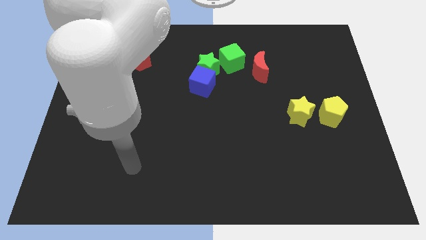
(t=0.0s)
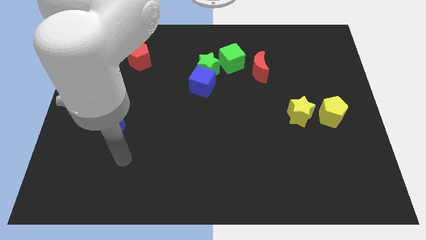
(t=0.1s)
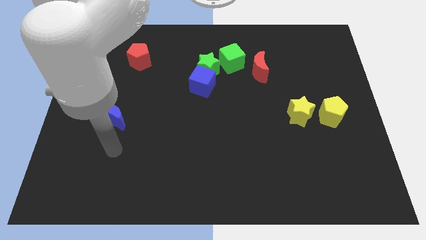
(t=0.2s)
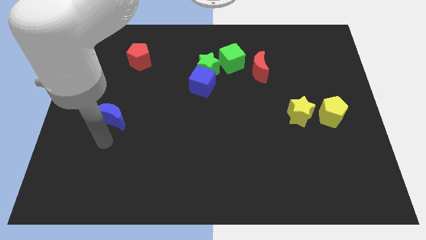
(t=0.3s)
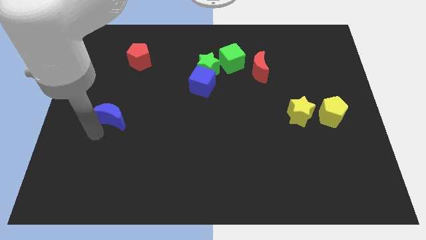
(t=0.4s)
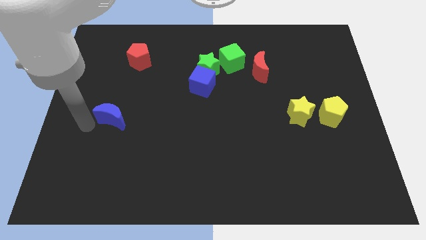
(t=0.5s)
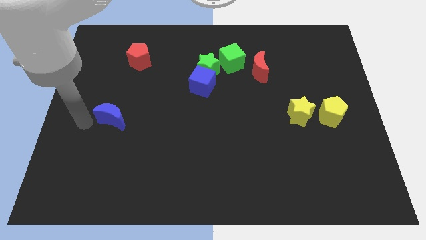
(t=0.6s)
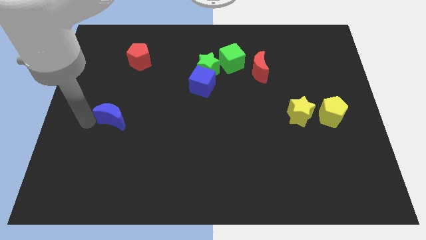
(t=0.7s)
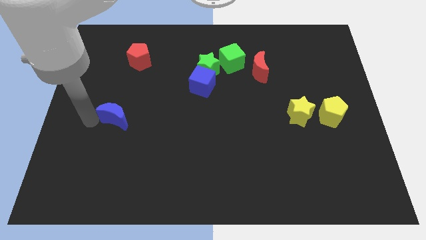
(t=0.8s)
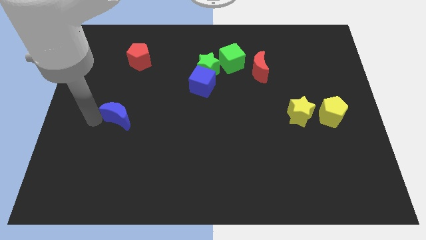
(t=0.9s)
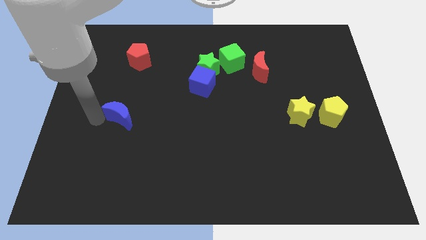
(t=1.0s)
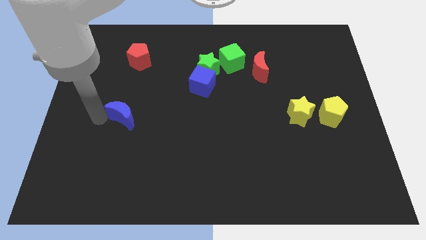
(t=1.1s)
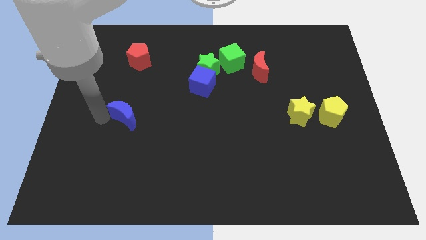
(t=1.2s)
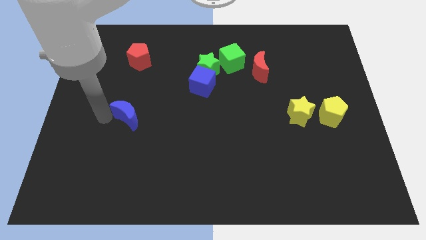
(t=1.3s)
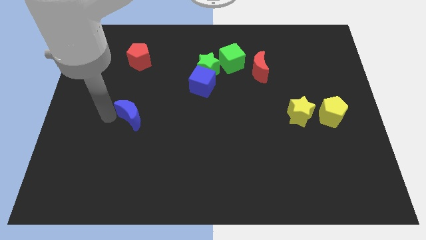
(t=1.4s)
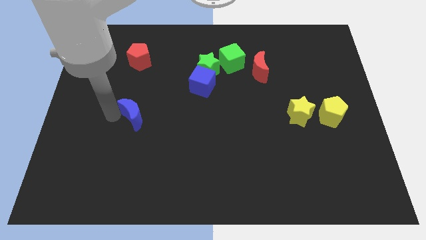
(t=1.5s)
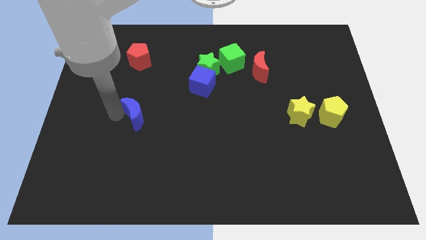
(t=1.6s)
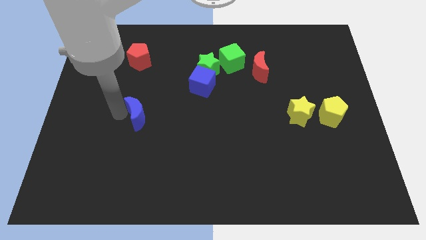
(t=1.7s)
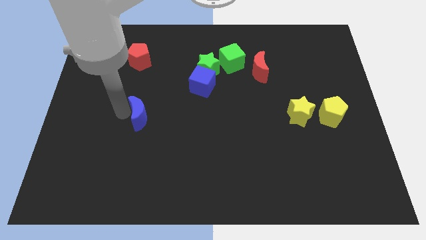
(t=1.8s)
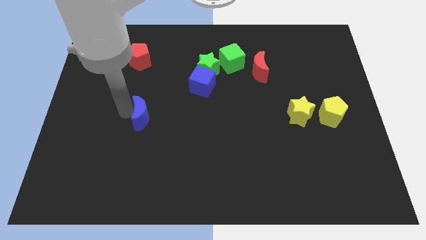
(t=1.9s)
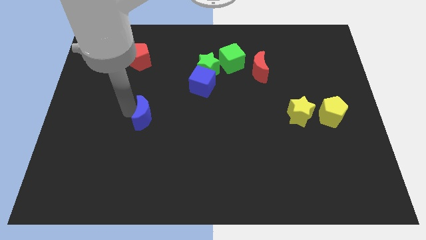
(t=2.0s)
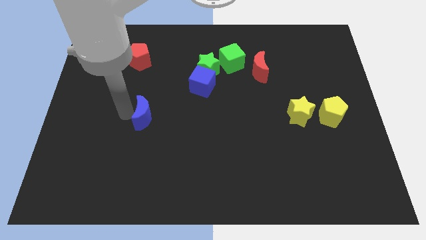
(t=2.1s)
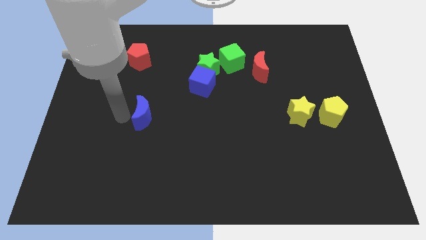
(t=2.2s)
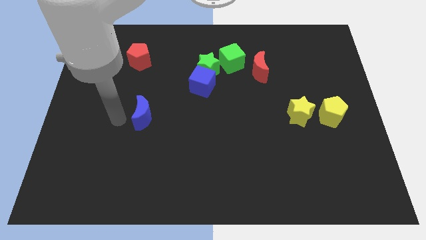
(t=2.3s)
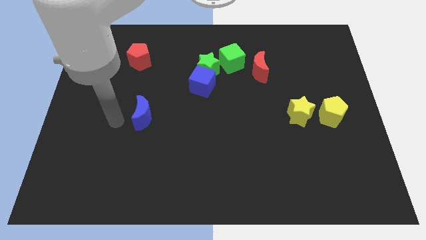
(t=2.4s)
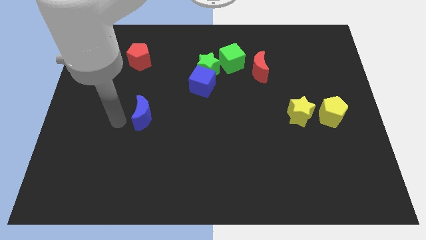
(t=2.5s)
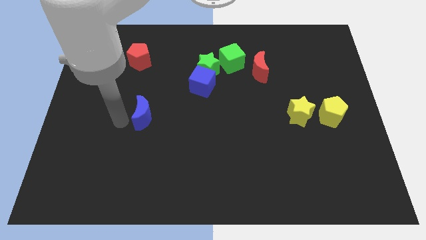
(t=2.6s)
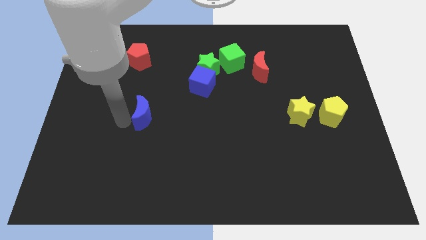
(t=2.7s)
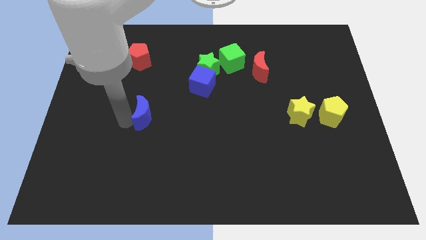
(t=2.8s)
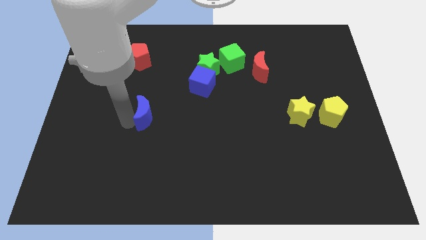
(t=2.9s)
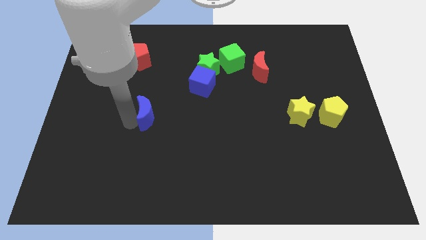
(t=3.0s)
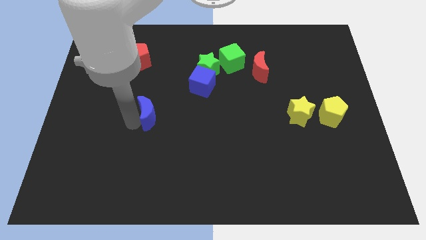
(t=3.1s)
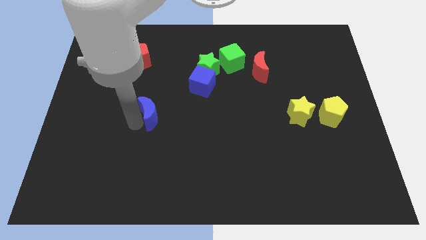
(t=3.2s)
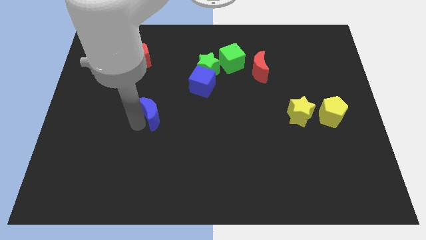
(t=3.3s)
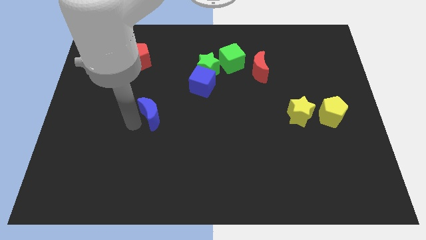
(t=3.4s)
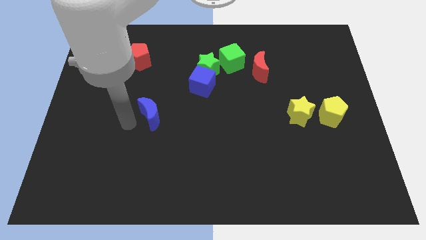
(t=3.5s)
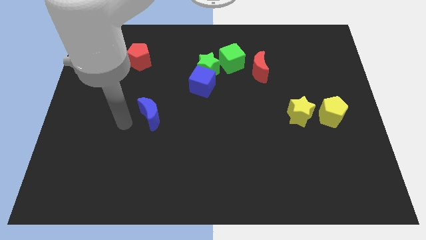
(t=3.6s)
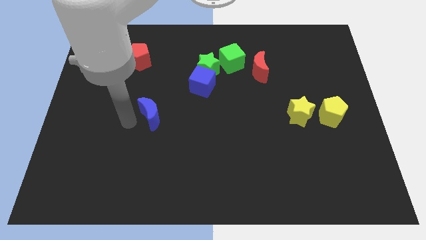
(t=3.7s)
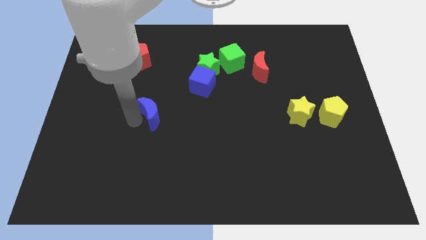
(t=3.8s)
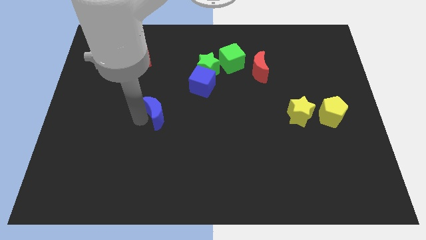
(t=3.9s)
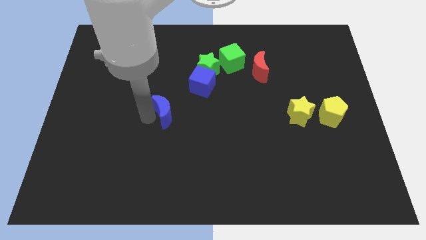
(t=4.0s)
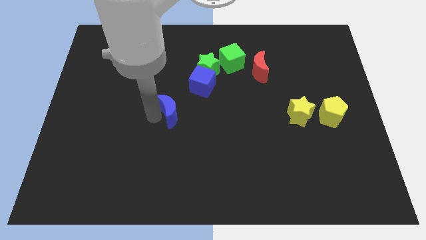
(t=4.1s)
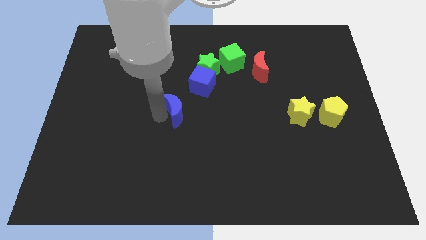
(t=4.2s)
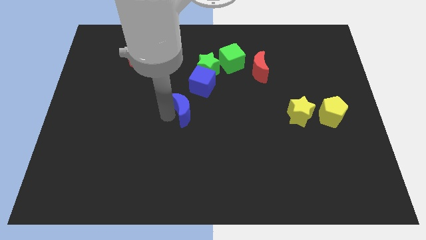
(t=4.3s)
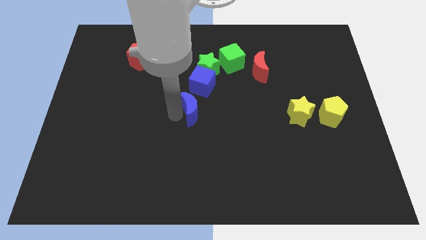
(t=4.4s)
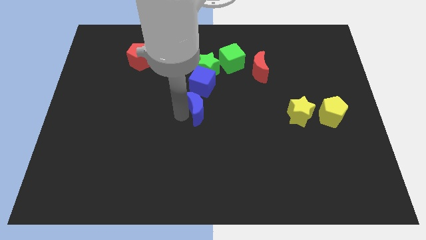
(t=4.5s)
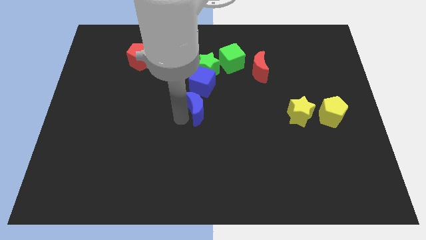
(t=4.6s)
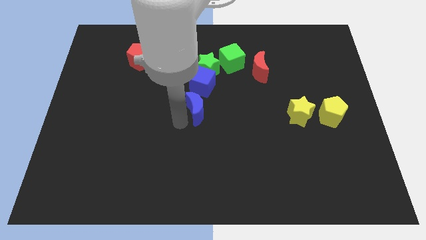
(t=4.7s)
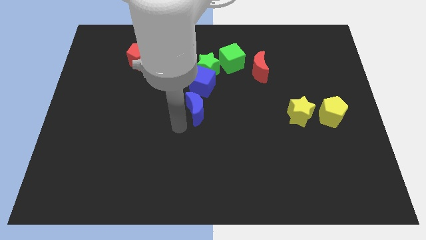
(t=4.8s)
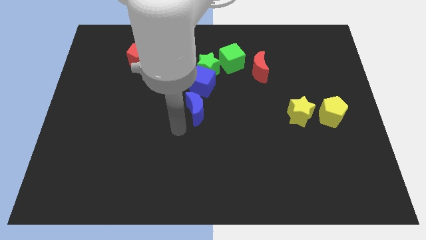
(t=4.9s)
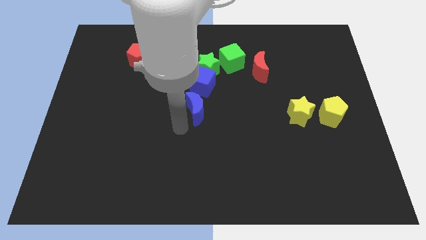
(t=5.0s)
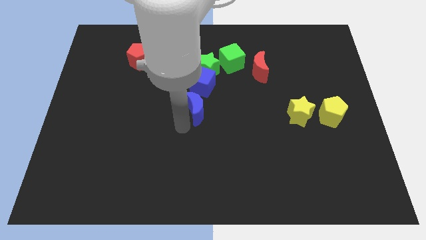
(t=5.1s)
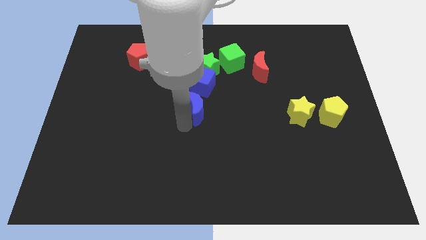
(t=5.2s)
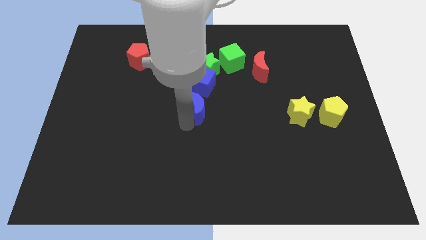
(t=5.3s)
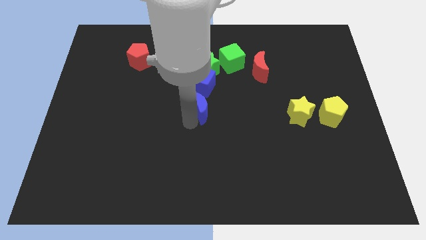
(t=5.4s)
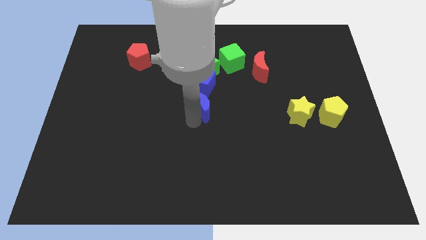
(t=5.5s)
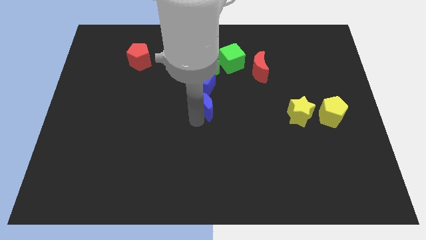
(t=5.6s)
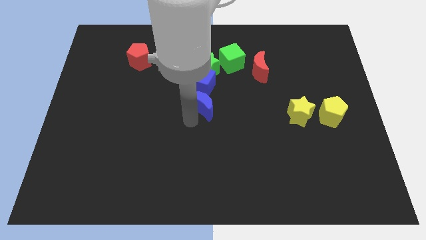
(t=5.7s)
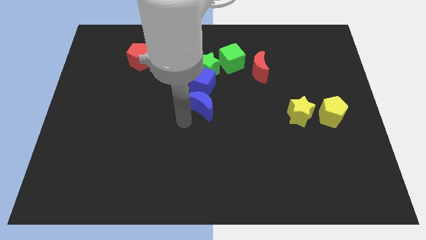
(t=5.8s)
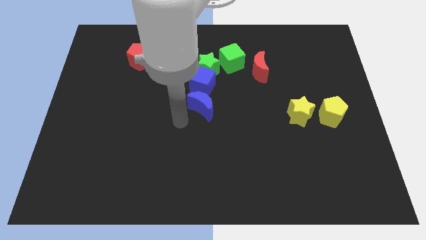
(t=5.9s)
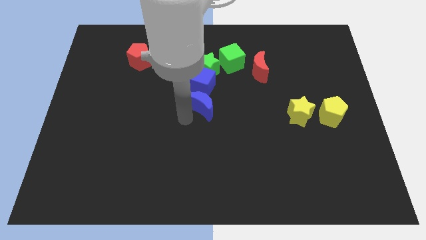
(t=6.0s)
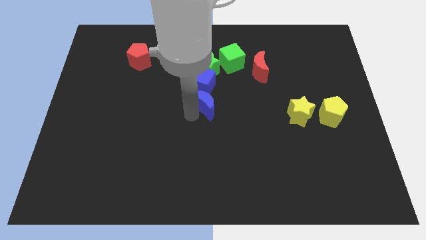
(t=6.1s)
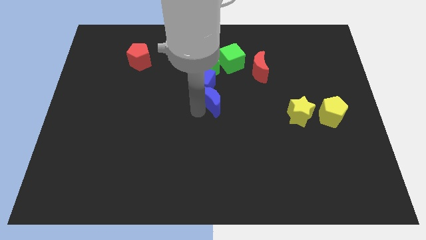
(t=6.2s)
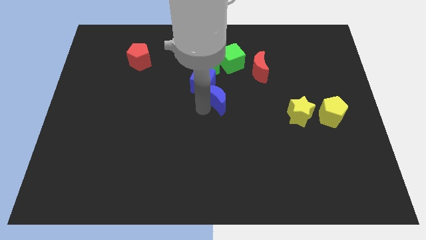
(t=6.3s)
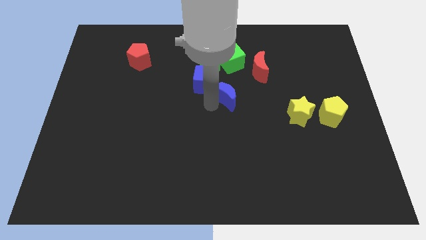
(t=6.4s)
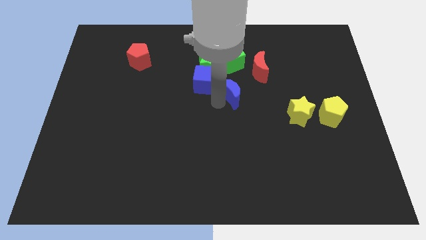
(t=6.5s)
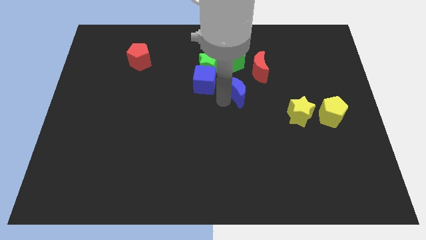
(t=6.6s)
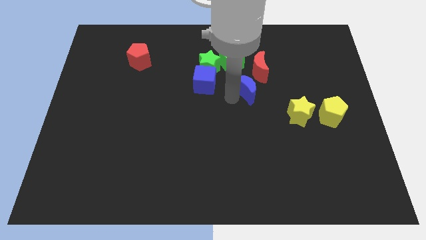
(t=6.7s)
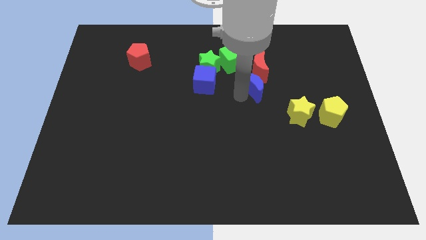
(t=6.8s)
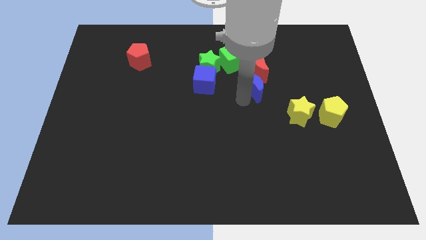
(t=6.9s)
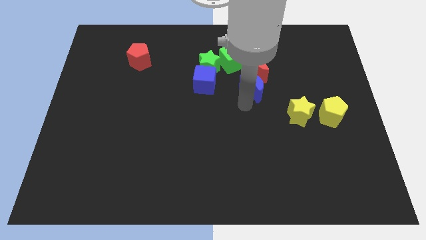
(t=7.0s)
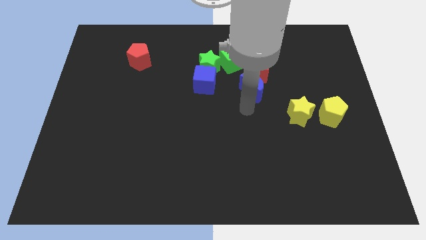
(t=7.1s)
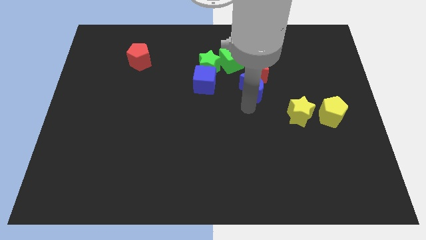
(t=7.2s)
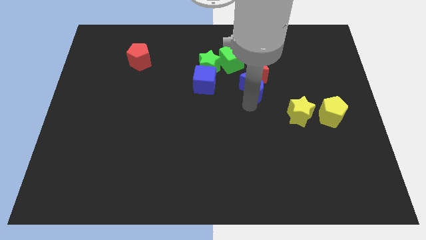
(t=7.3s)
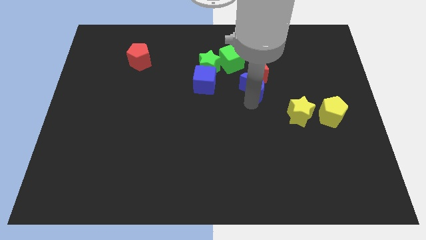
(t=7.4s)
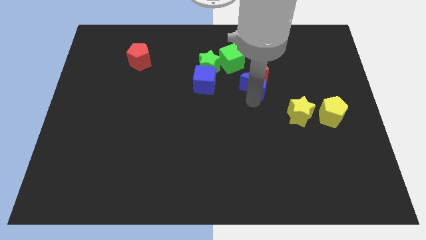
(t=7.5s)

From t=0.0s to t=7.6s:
push the blue moon next to the red moon
